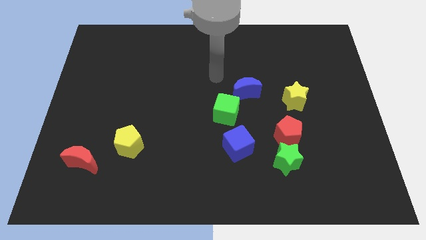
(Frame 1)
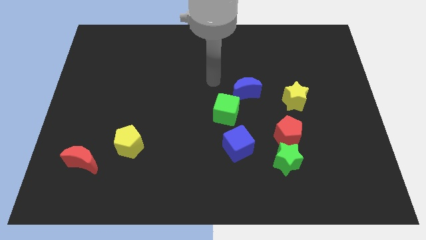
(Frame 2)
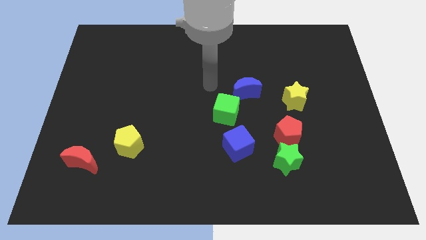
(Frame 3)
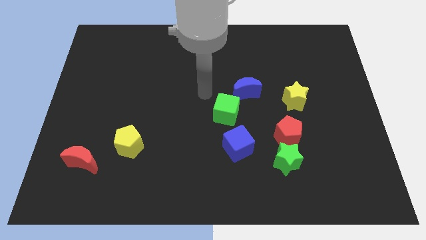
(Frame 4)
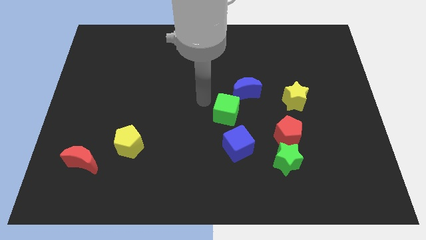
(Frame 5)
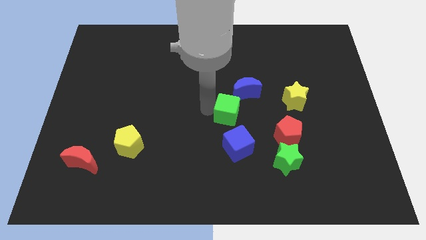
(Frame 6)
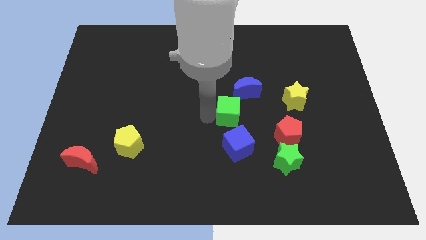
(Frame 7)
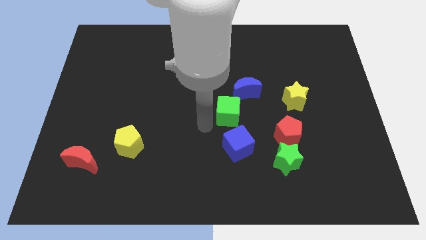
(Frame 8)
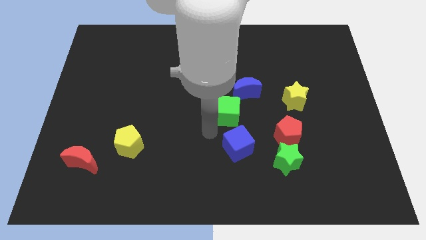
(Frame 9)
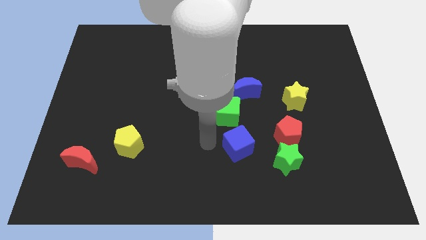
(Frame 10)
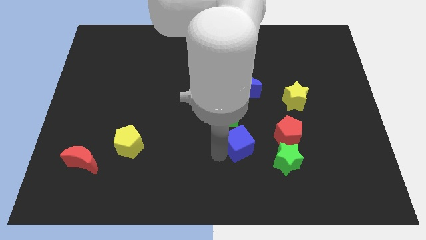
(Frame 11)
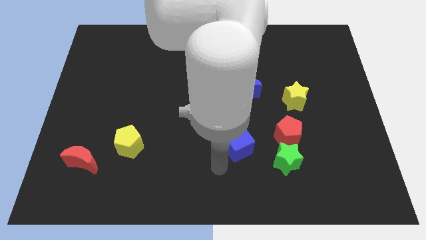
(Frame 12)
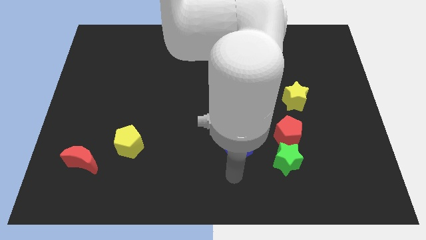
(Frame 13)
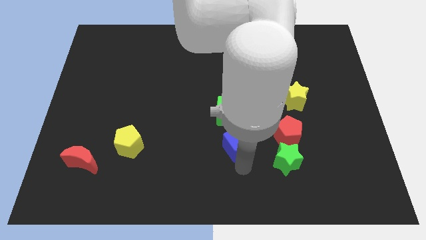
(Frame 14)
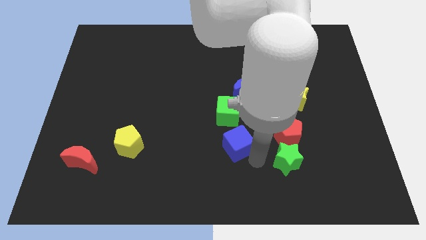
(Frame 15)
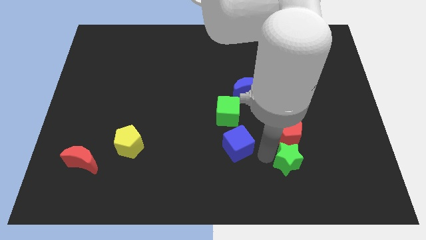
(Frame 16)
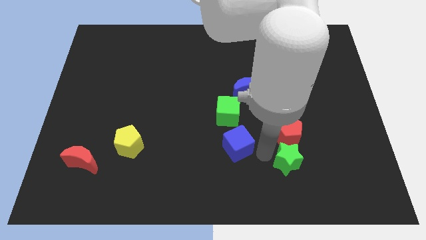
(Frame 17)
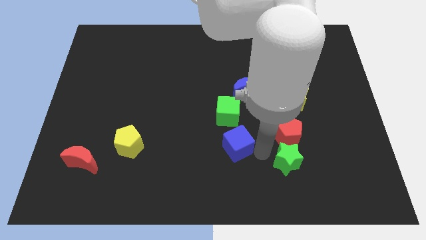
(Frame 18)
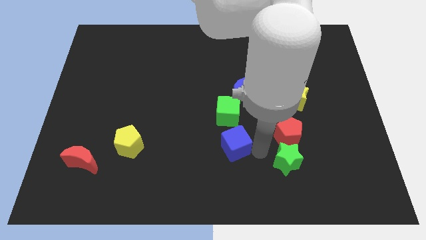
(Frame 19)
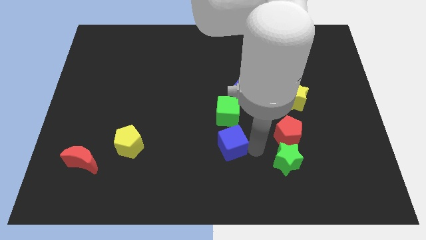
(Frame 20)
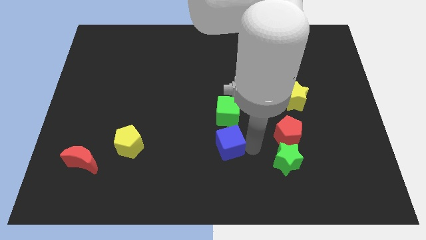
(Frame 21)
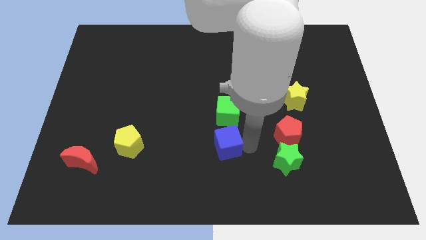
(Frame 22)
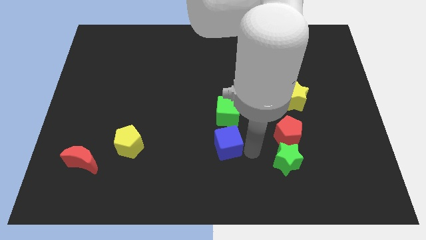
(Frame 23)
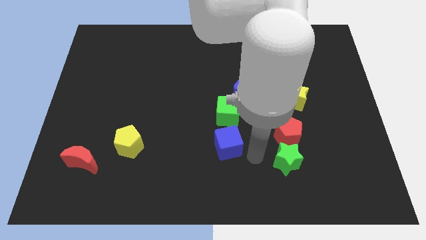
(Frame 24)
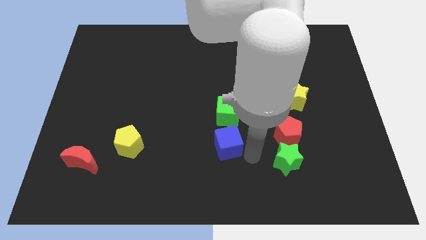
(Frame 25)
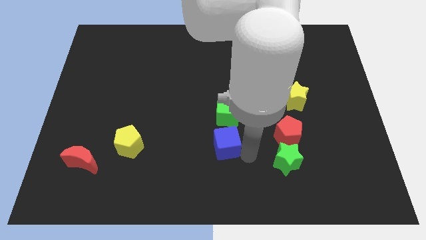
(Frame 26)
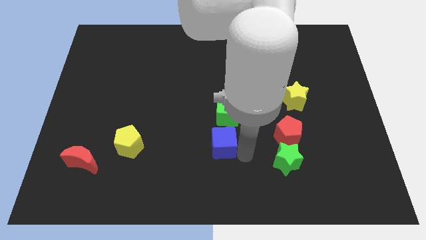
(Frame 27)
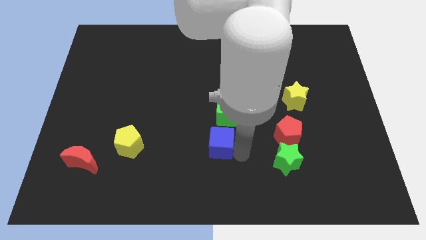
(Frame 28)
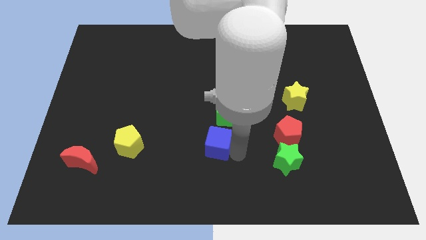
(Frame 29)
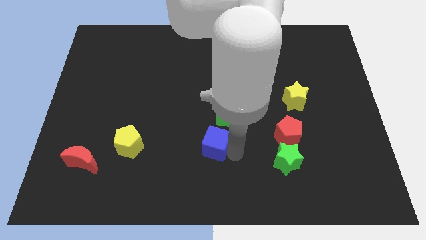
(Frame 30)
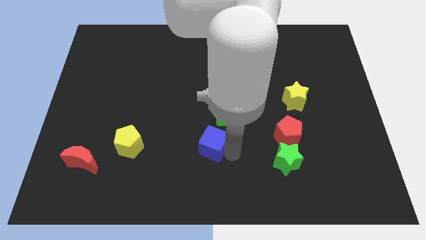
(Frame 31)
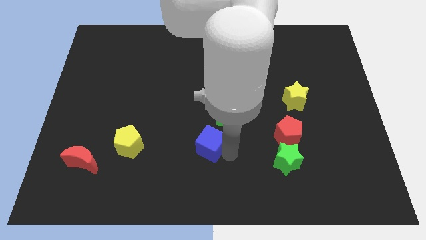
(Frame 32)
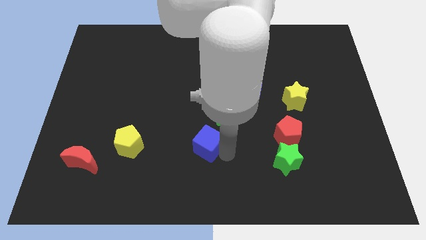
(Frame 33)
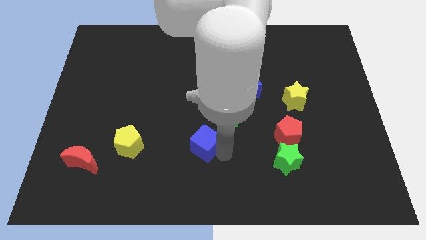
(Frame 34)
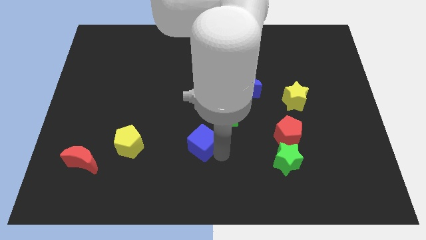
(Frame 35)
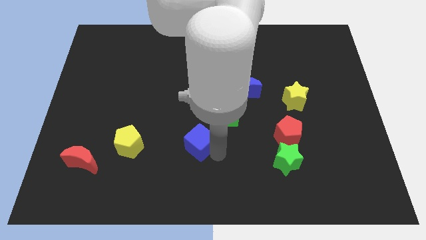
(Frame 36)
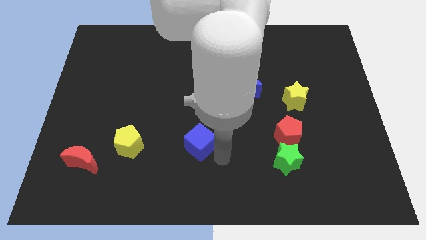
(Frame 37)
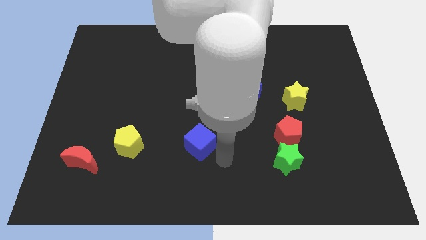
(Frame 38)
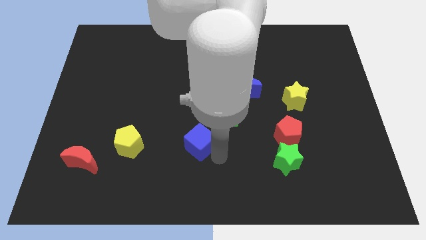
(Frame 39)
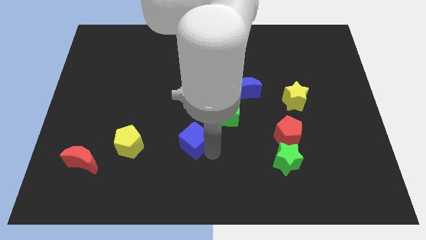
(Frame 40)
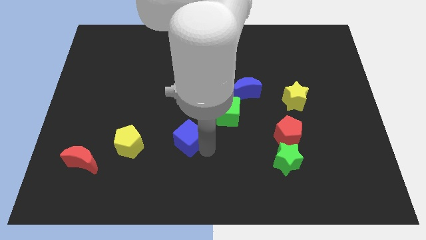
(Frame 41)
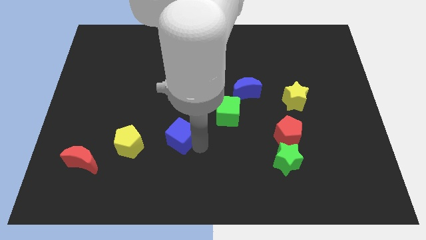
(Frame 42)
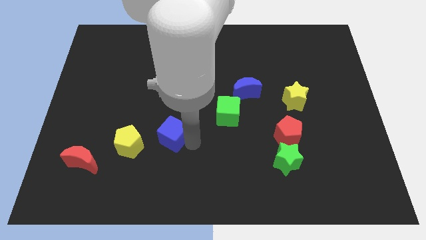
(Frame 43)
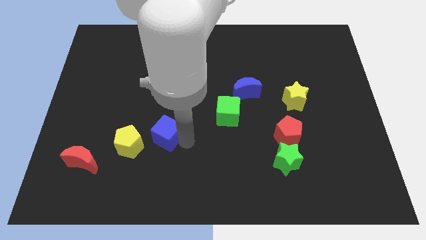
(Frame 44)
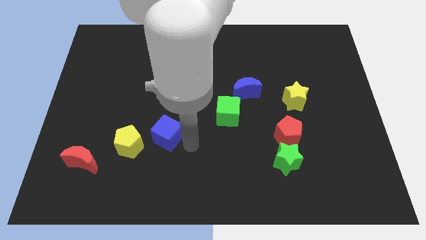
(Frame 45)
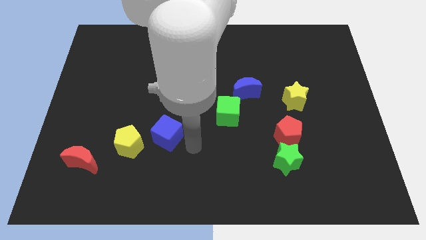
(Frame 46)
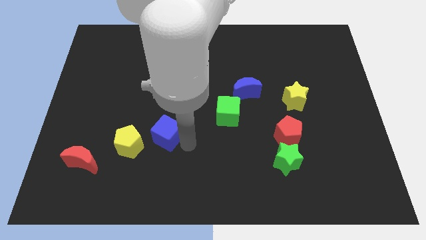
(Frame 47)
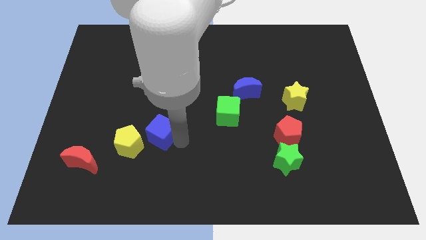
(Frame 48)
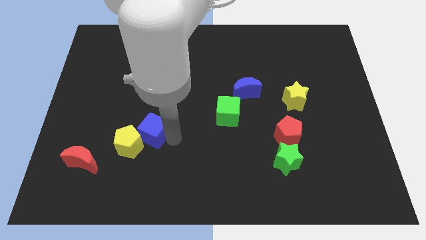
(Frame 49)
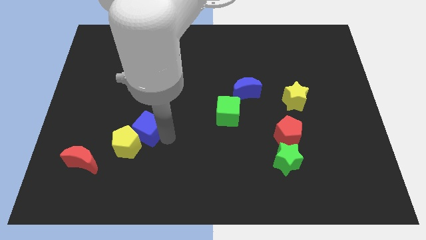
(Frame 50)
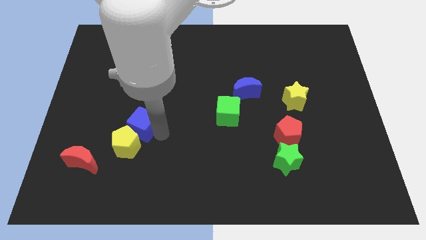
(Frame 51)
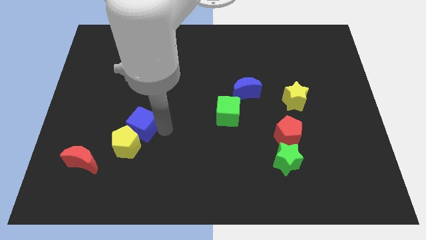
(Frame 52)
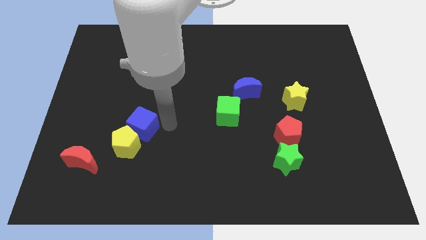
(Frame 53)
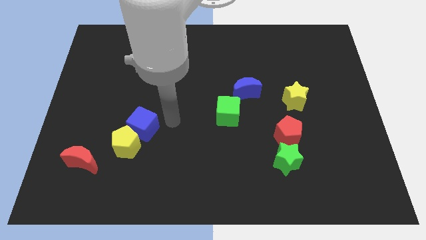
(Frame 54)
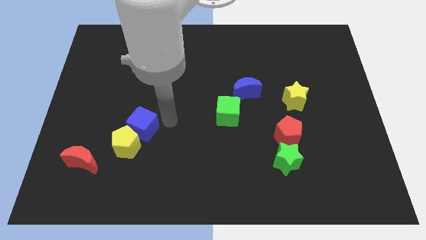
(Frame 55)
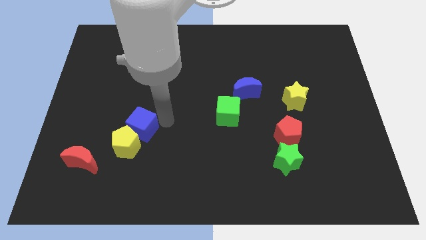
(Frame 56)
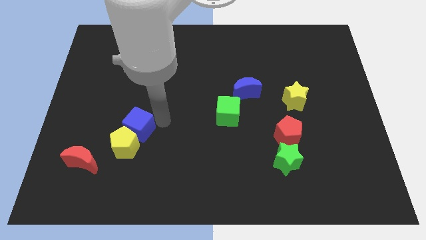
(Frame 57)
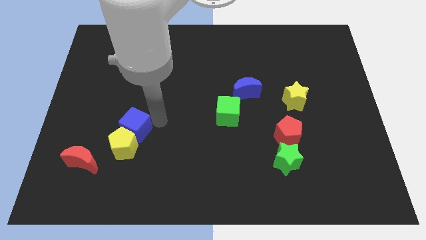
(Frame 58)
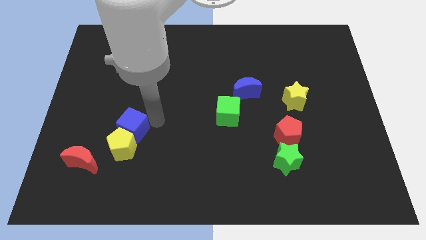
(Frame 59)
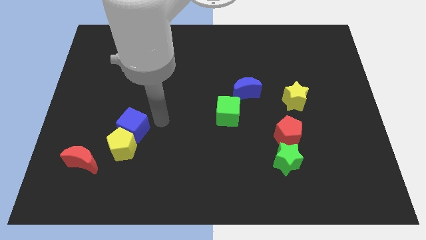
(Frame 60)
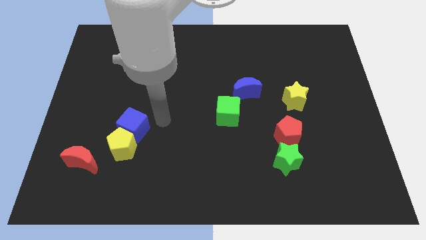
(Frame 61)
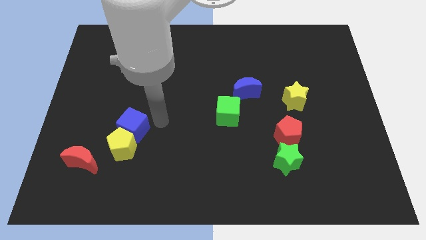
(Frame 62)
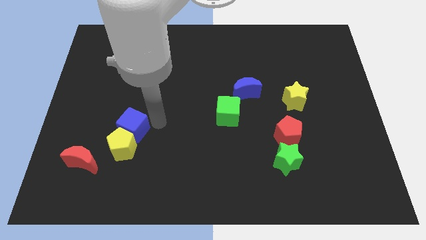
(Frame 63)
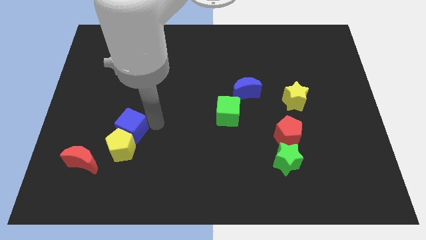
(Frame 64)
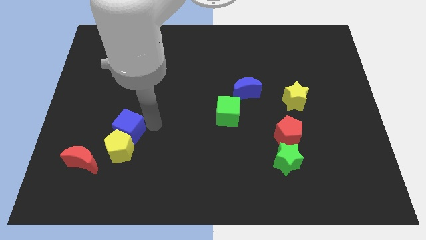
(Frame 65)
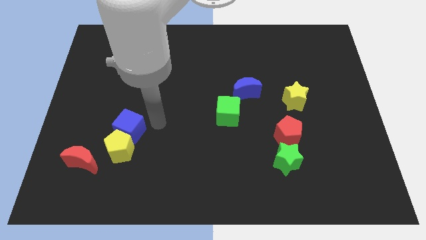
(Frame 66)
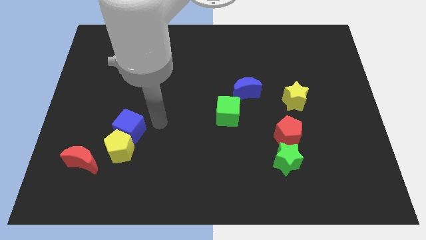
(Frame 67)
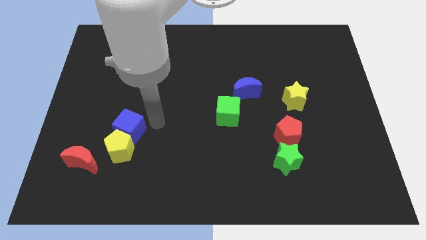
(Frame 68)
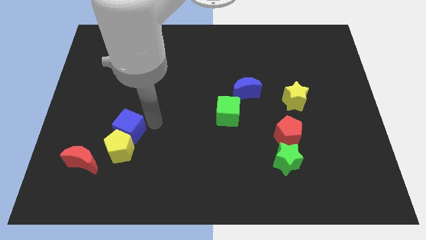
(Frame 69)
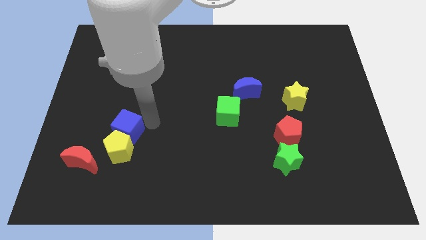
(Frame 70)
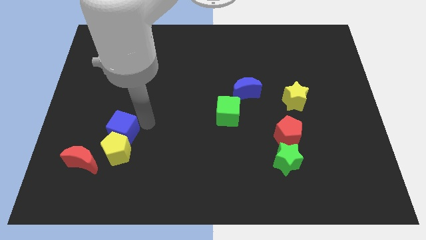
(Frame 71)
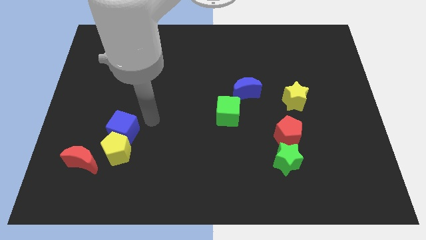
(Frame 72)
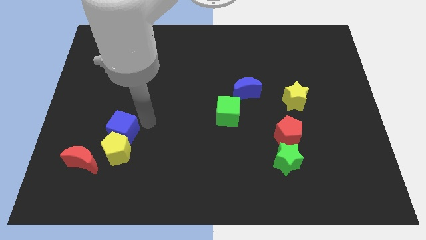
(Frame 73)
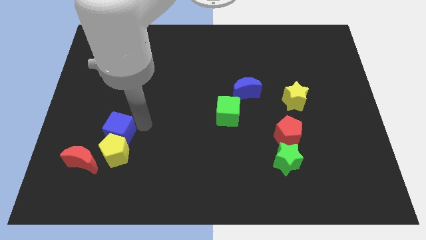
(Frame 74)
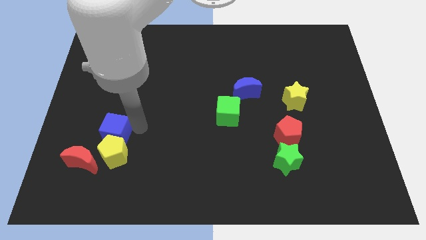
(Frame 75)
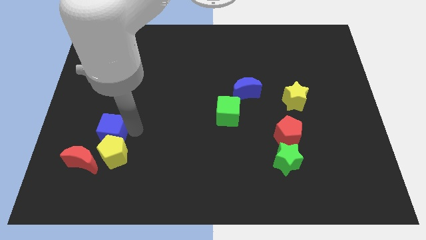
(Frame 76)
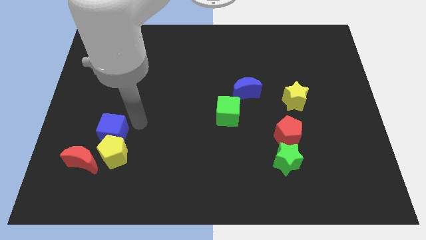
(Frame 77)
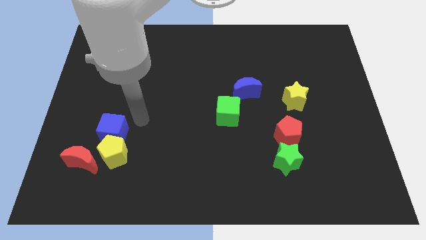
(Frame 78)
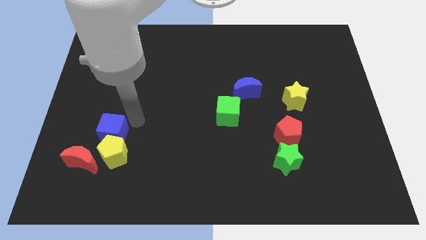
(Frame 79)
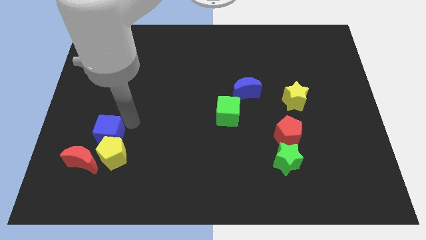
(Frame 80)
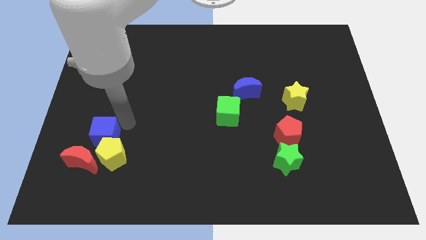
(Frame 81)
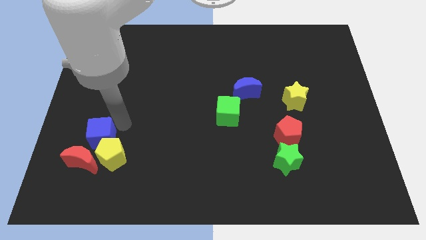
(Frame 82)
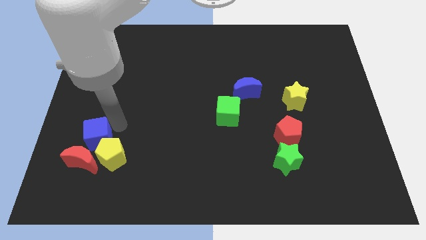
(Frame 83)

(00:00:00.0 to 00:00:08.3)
push the blue cube left of the yellow pentagon
